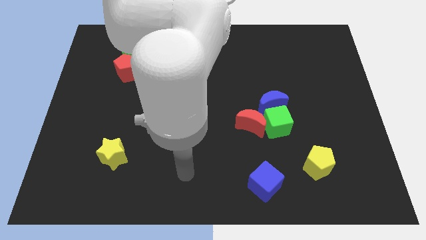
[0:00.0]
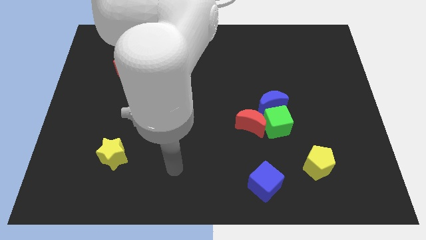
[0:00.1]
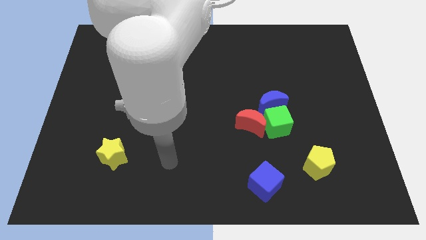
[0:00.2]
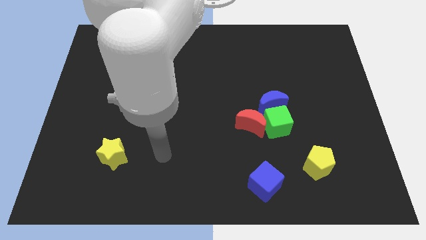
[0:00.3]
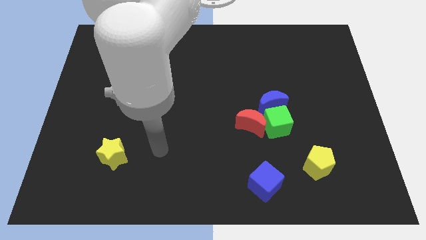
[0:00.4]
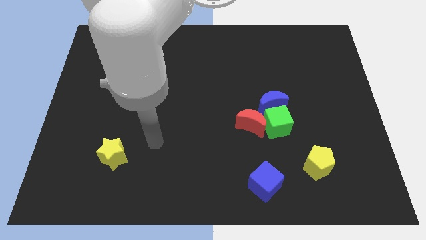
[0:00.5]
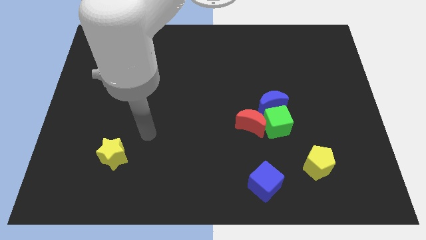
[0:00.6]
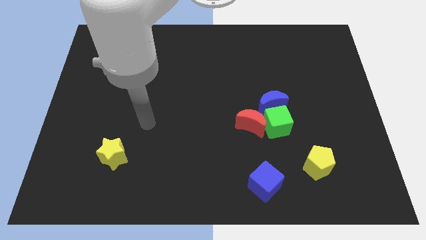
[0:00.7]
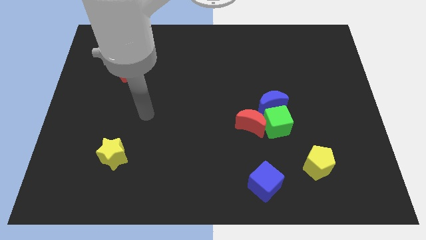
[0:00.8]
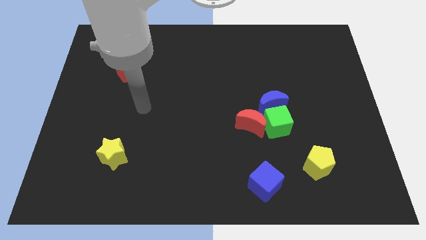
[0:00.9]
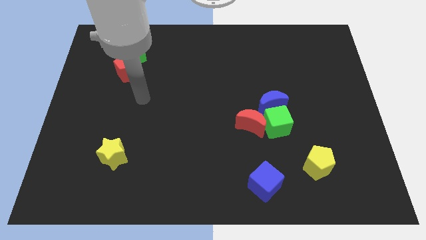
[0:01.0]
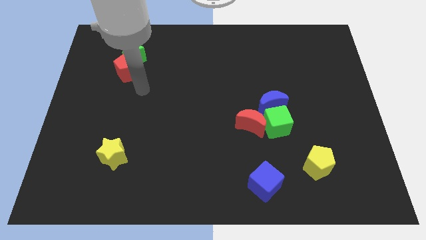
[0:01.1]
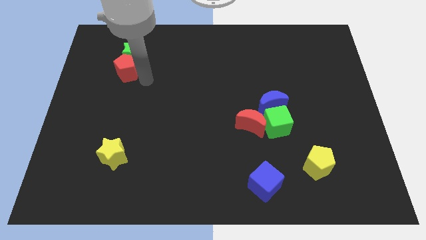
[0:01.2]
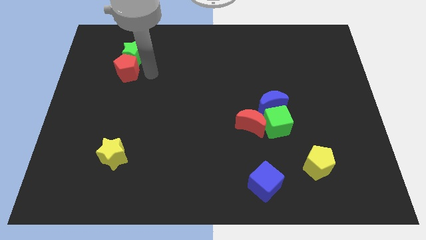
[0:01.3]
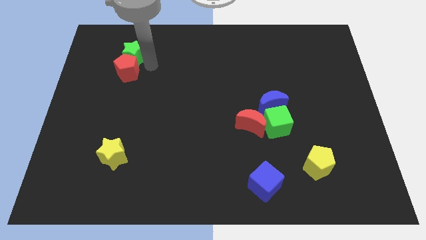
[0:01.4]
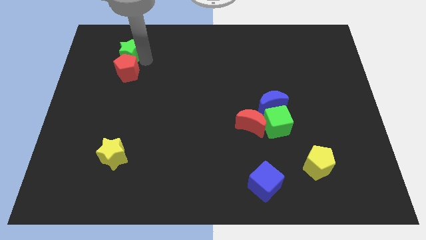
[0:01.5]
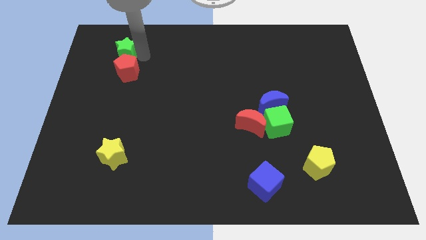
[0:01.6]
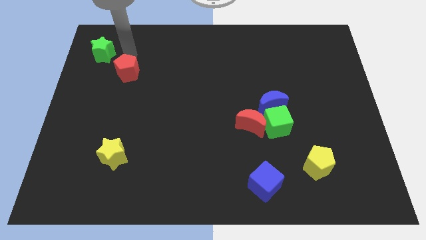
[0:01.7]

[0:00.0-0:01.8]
separate the red pentagon from the green star

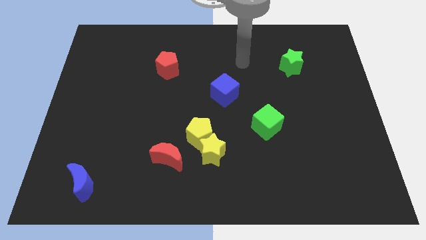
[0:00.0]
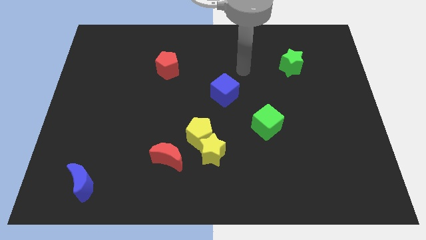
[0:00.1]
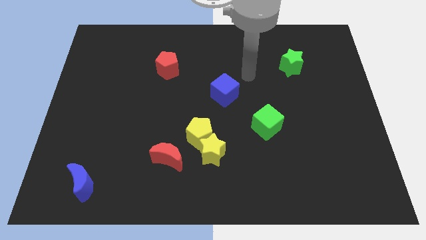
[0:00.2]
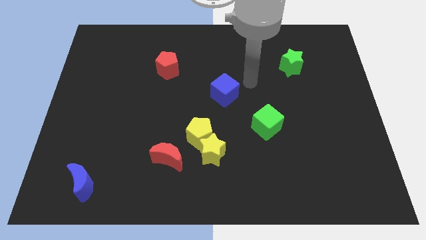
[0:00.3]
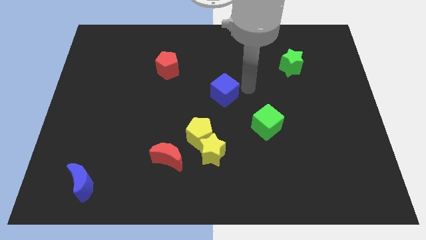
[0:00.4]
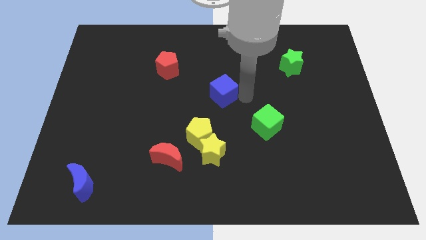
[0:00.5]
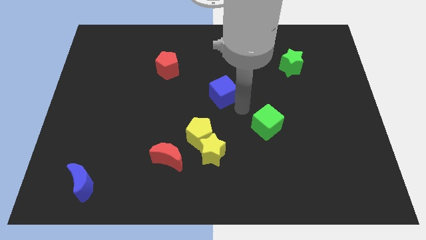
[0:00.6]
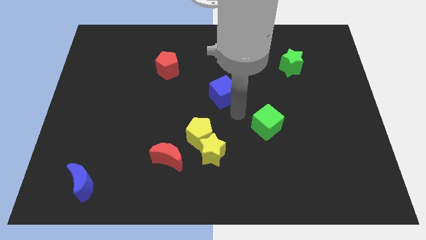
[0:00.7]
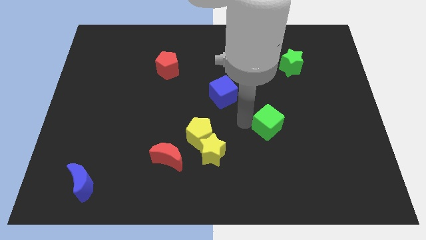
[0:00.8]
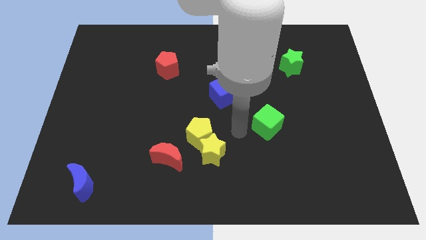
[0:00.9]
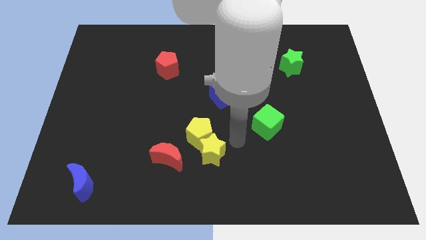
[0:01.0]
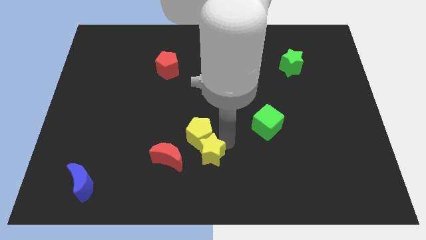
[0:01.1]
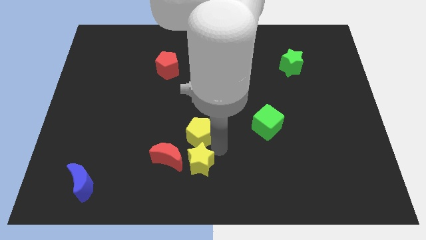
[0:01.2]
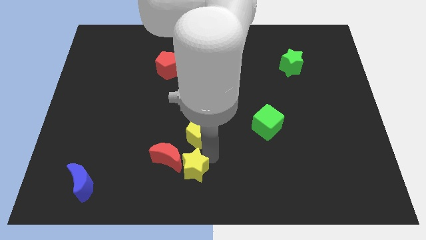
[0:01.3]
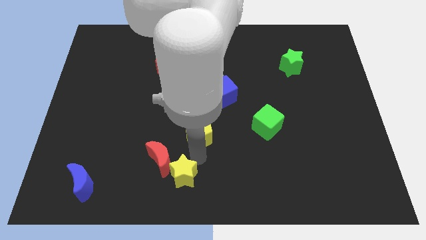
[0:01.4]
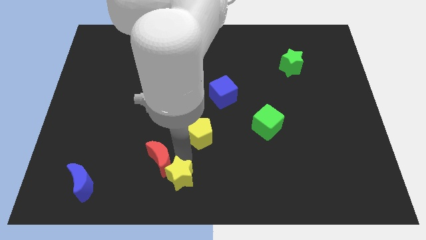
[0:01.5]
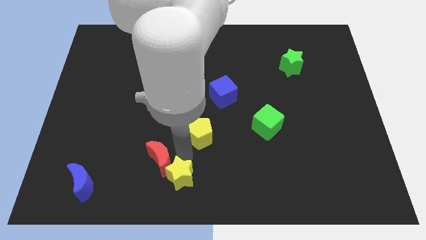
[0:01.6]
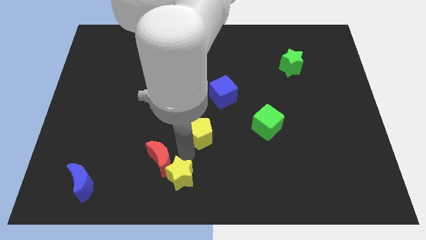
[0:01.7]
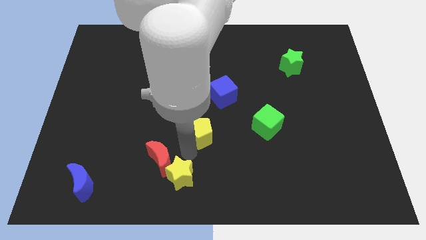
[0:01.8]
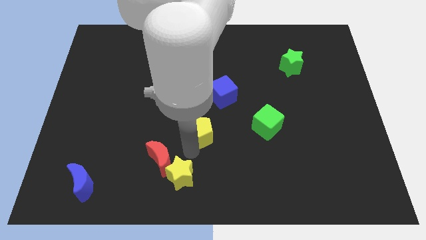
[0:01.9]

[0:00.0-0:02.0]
move the yellow pentagon away from the yellow star and red moon

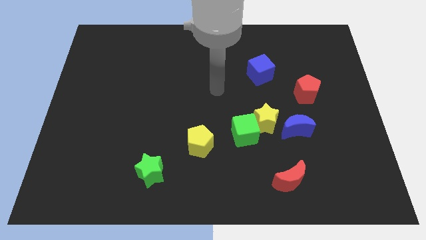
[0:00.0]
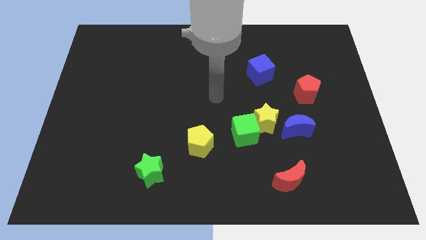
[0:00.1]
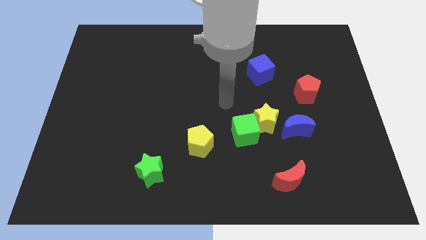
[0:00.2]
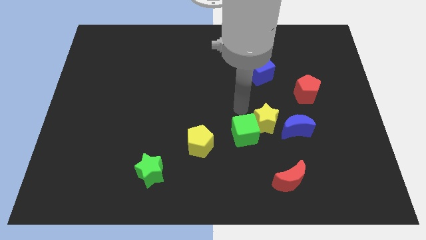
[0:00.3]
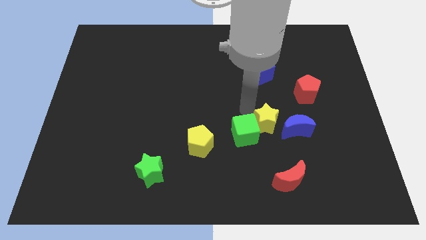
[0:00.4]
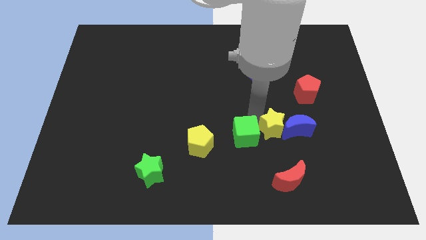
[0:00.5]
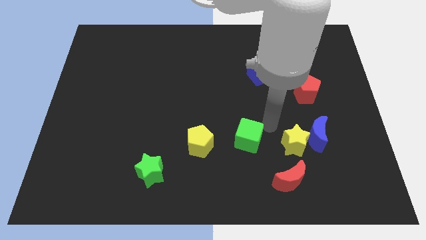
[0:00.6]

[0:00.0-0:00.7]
pull the green cube apart from the yellow star

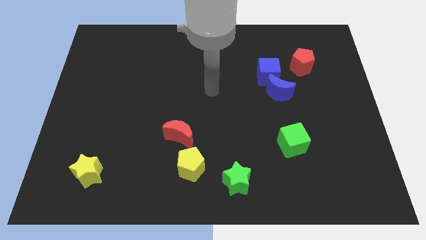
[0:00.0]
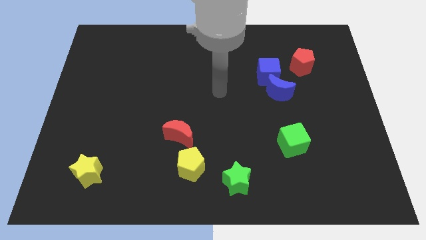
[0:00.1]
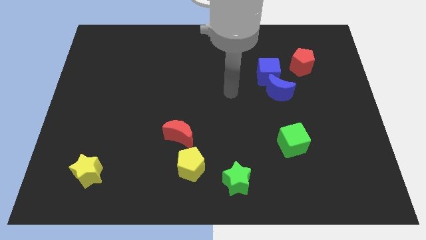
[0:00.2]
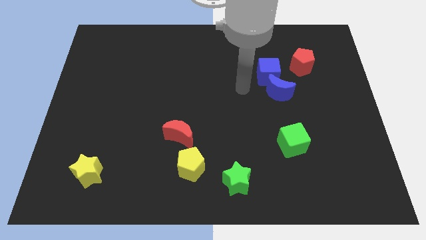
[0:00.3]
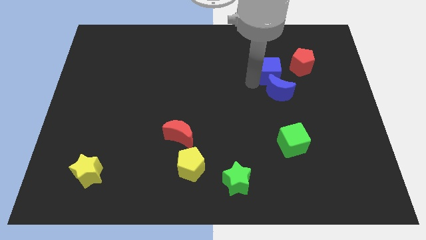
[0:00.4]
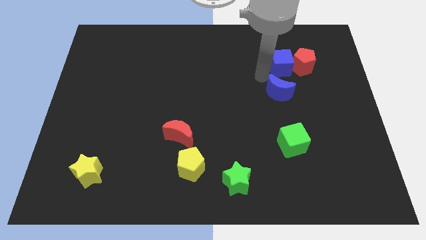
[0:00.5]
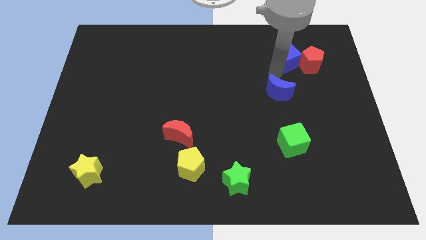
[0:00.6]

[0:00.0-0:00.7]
separate the blue moon from the blue cube

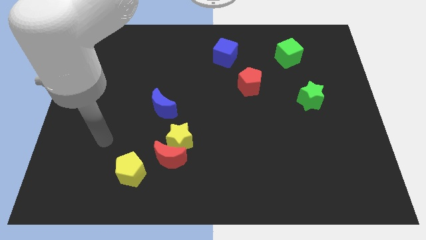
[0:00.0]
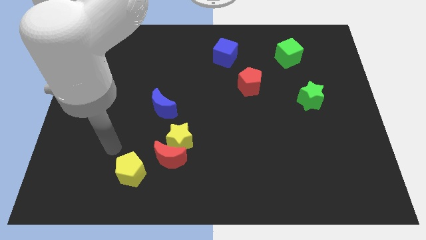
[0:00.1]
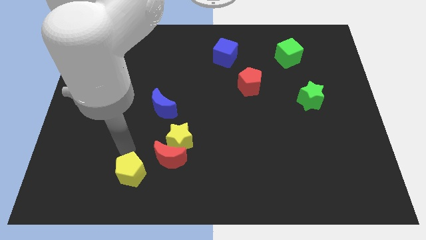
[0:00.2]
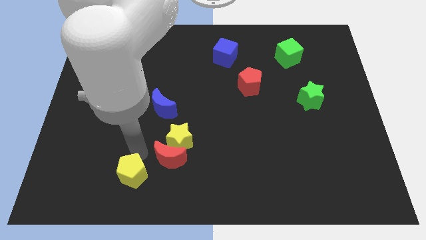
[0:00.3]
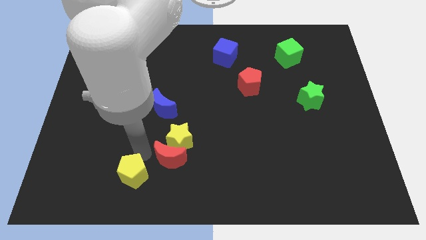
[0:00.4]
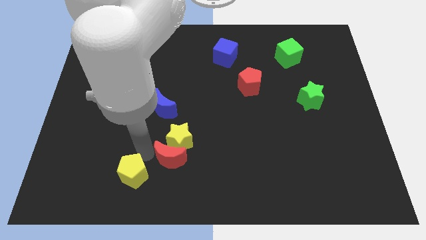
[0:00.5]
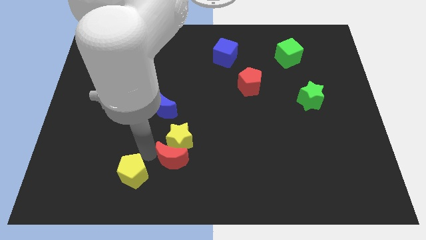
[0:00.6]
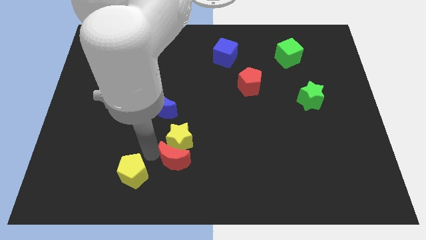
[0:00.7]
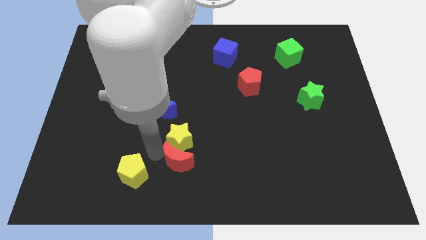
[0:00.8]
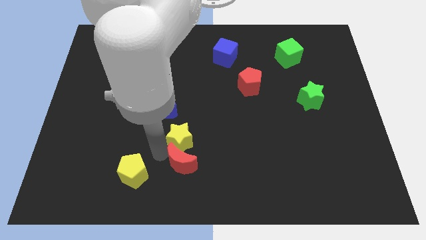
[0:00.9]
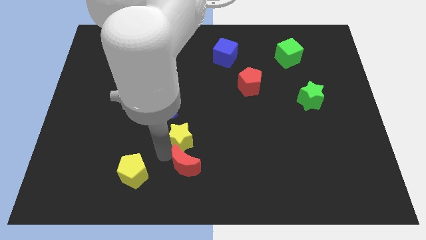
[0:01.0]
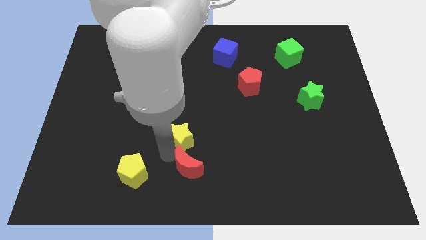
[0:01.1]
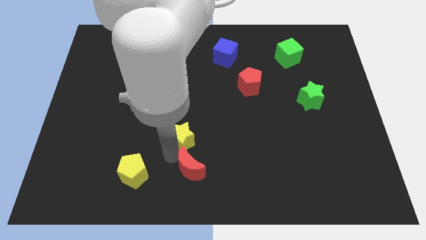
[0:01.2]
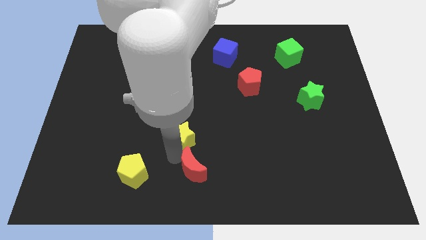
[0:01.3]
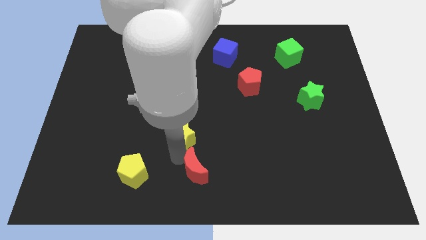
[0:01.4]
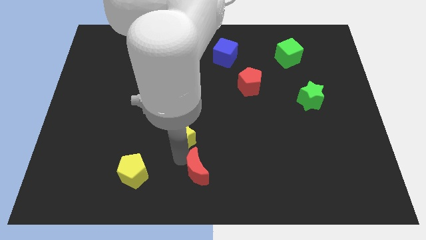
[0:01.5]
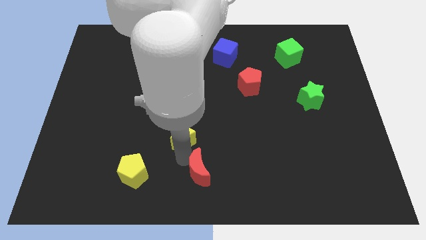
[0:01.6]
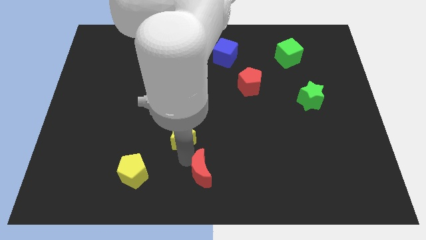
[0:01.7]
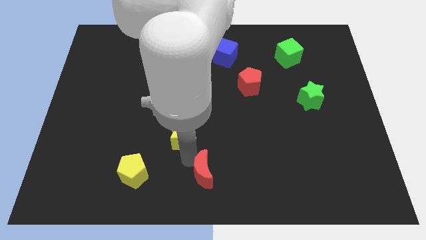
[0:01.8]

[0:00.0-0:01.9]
separate the red moon from the yellow star and yellow pentagon

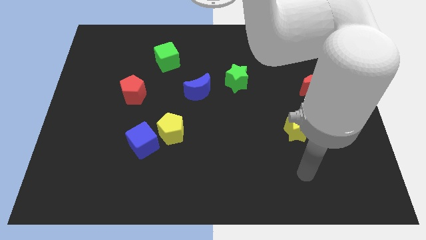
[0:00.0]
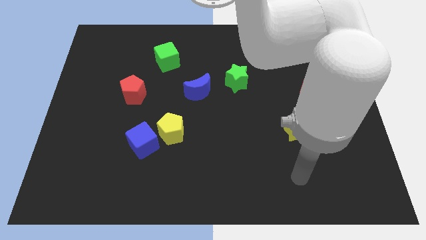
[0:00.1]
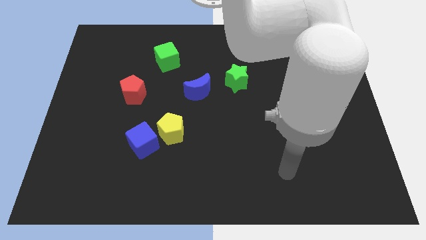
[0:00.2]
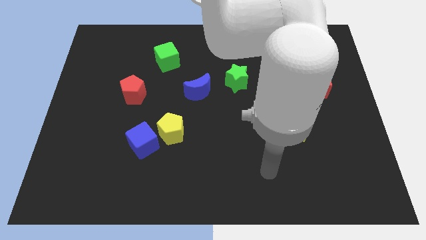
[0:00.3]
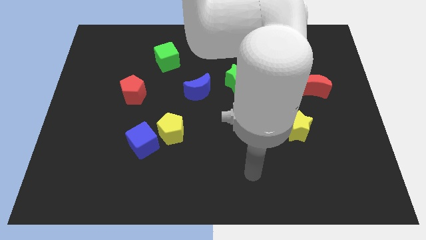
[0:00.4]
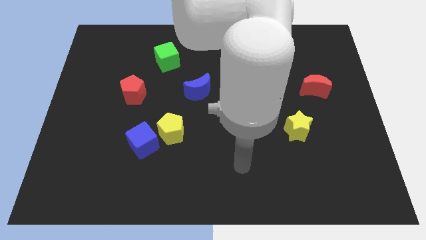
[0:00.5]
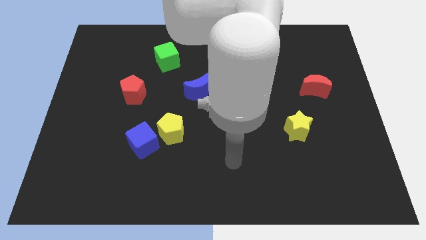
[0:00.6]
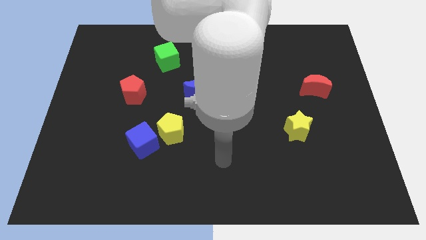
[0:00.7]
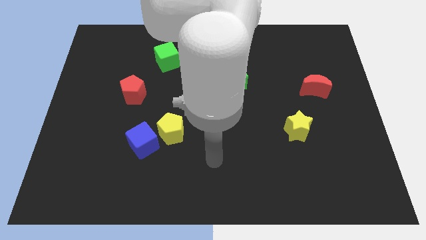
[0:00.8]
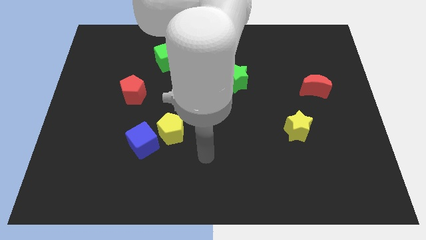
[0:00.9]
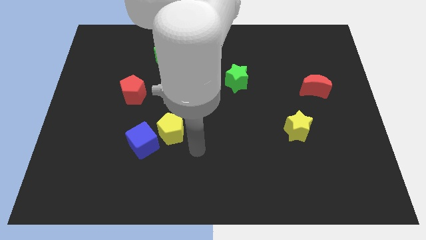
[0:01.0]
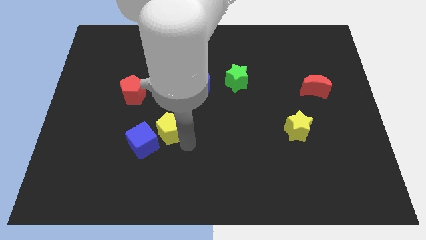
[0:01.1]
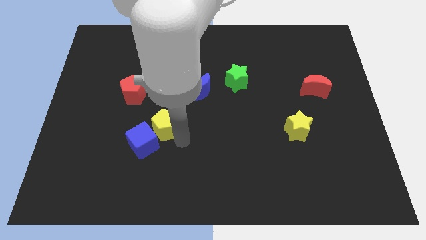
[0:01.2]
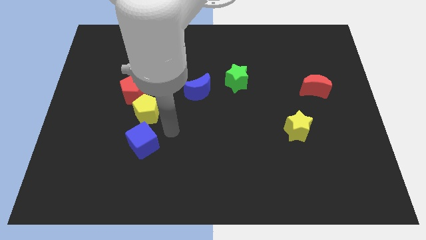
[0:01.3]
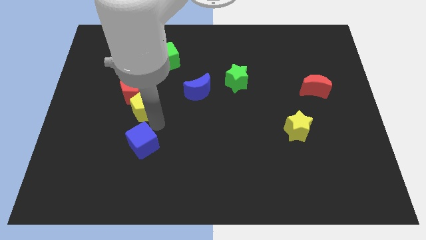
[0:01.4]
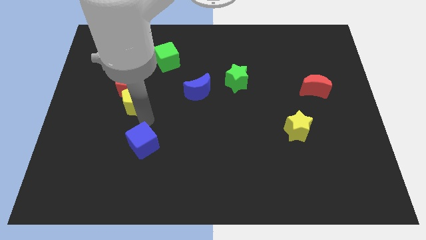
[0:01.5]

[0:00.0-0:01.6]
move the blue cube away from the yellow pentagon

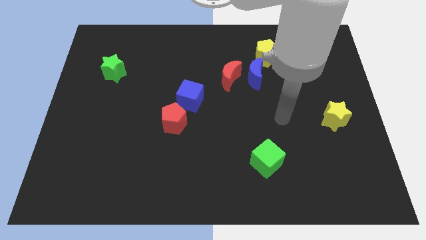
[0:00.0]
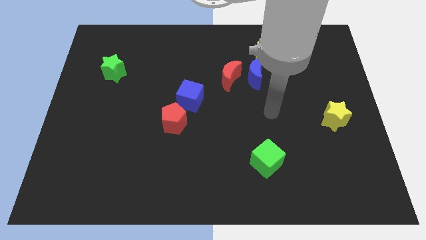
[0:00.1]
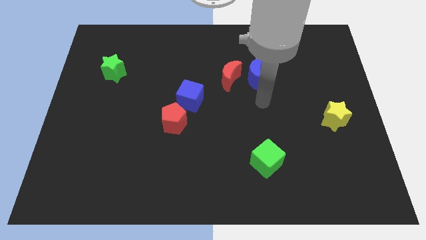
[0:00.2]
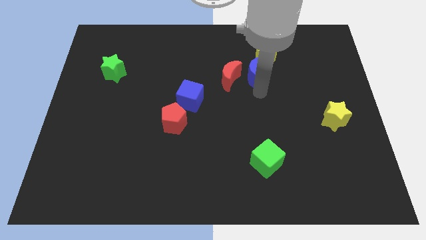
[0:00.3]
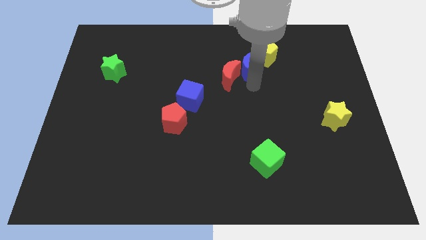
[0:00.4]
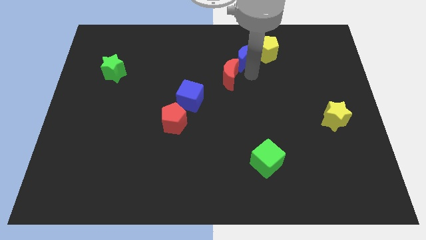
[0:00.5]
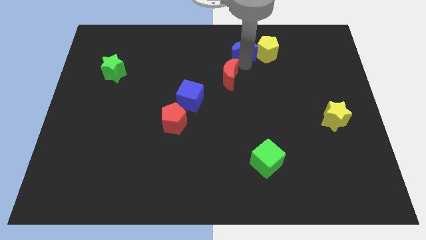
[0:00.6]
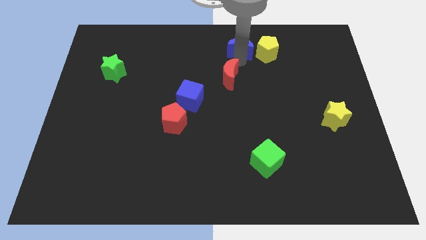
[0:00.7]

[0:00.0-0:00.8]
move the red moon away from the blue moon
